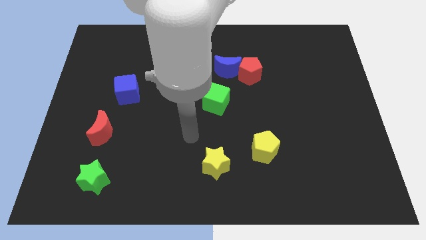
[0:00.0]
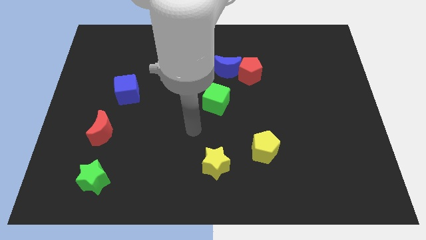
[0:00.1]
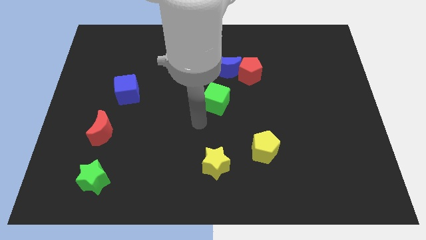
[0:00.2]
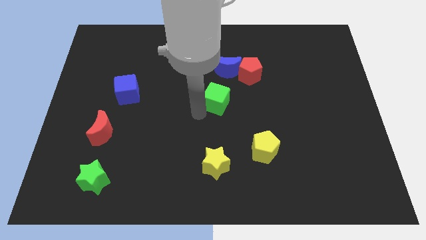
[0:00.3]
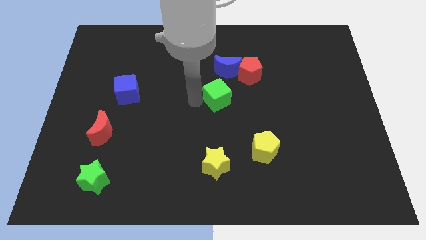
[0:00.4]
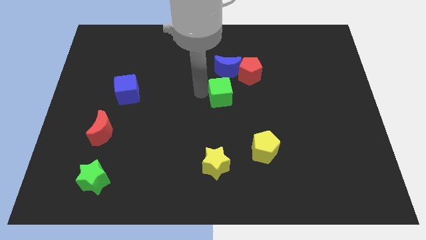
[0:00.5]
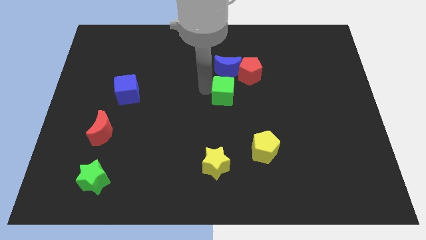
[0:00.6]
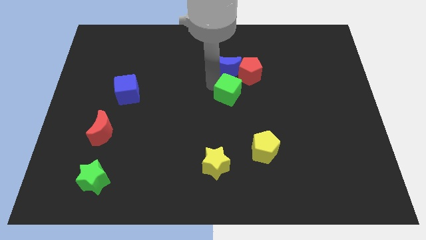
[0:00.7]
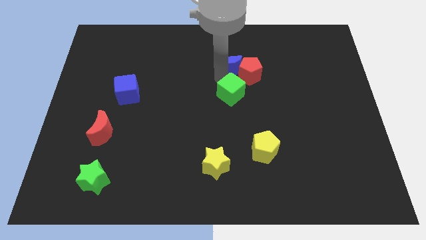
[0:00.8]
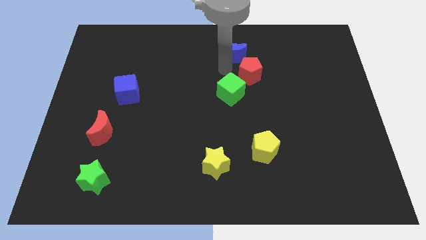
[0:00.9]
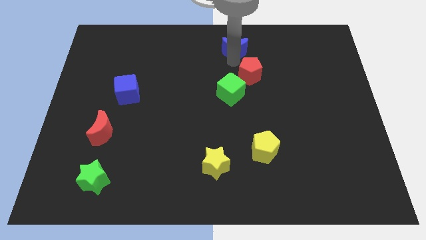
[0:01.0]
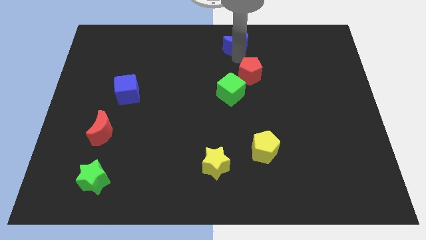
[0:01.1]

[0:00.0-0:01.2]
pull the red pentagon apart from the blue moon

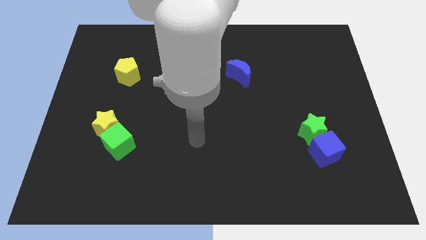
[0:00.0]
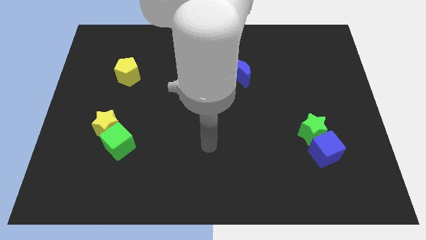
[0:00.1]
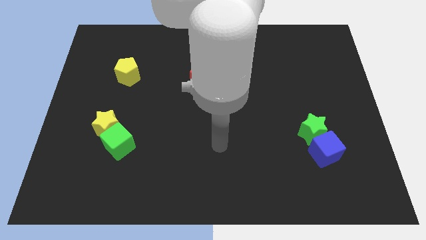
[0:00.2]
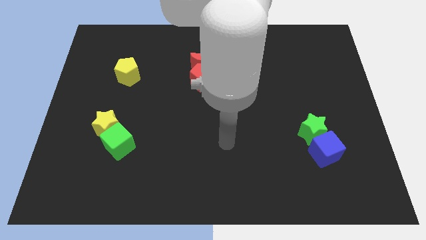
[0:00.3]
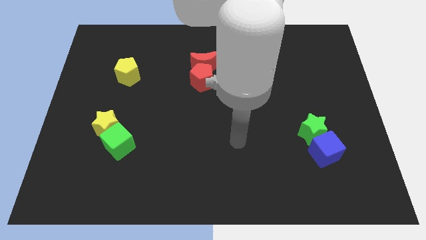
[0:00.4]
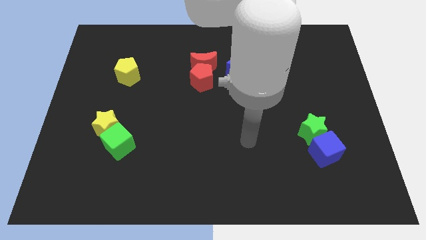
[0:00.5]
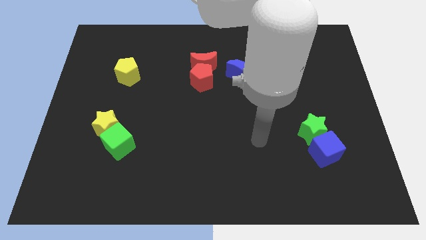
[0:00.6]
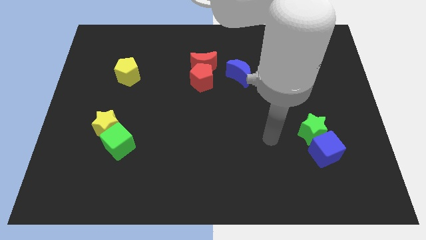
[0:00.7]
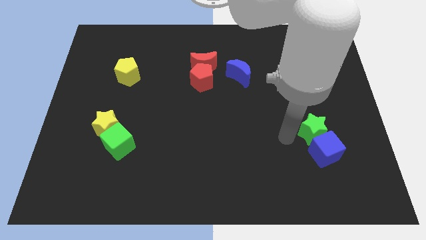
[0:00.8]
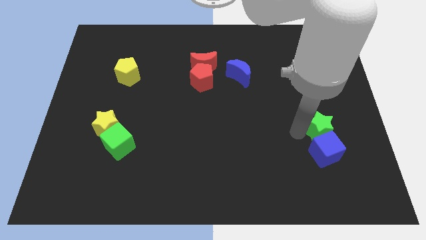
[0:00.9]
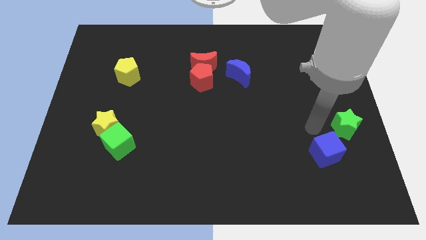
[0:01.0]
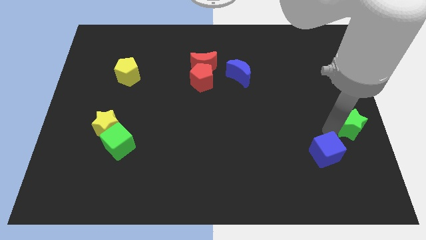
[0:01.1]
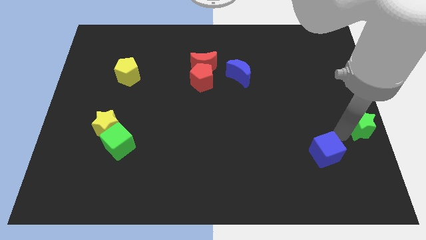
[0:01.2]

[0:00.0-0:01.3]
separate the blue cube from the green star

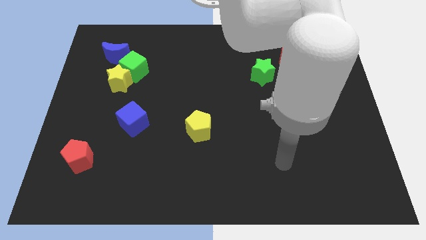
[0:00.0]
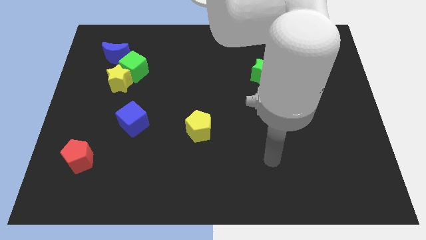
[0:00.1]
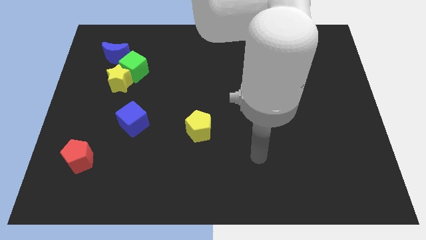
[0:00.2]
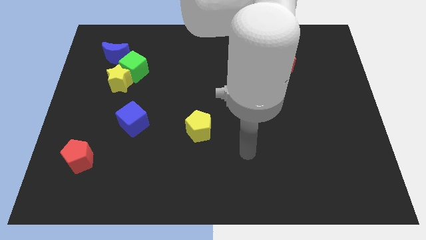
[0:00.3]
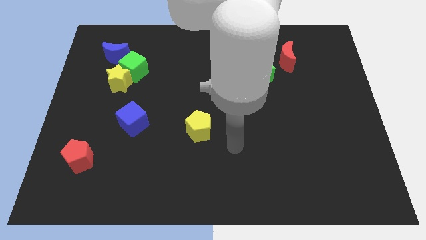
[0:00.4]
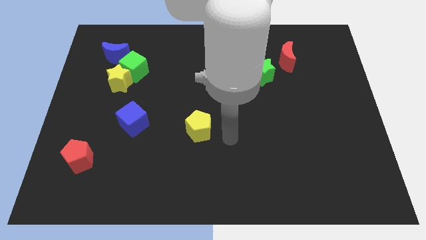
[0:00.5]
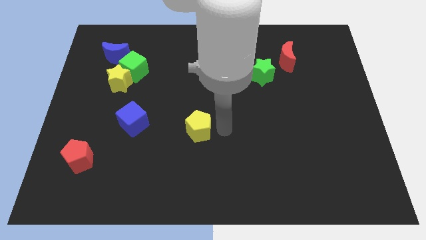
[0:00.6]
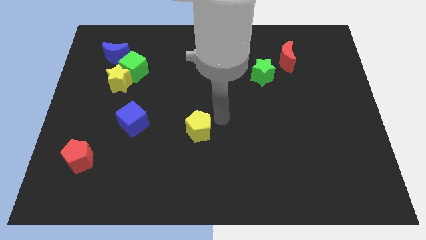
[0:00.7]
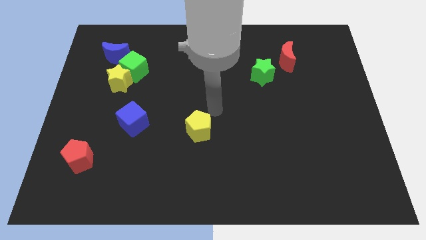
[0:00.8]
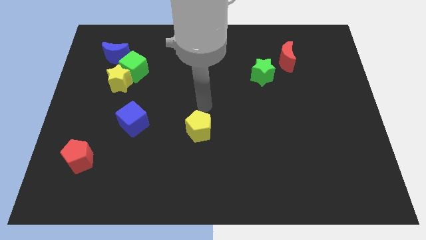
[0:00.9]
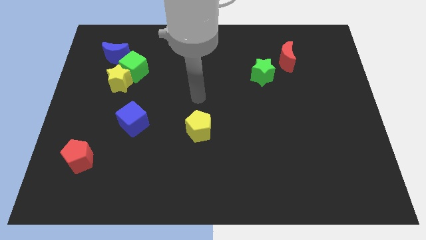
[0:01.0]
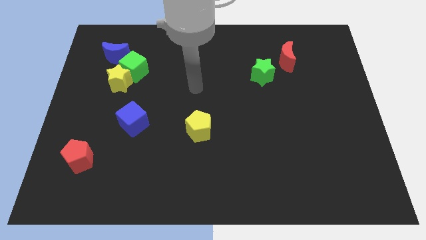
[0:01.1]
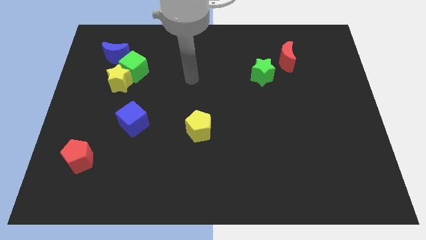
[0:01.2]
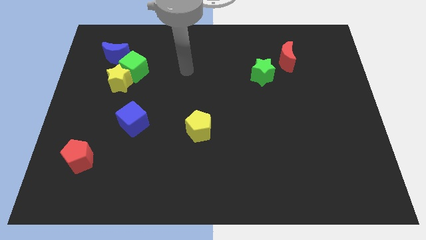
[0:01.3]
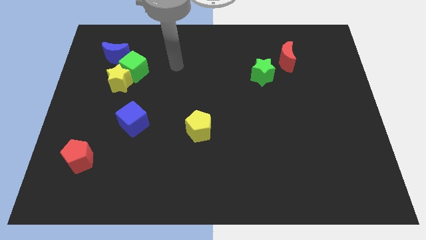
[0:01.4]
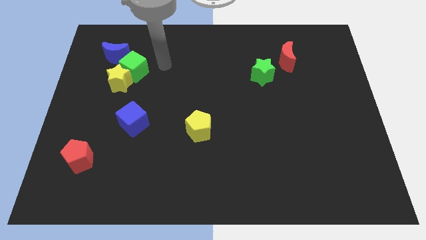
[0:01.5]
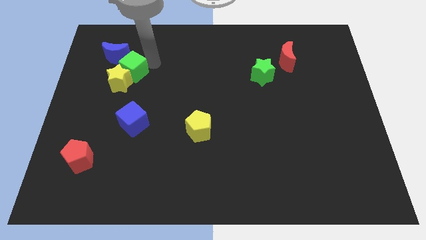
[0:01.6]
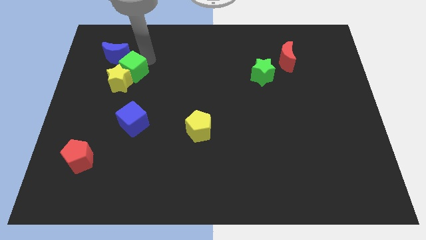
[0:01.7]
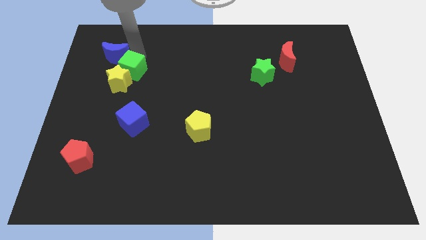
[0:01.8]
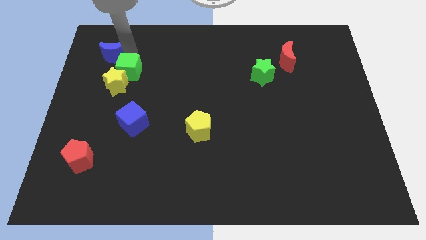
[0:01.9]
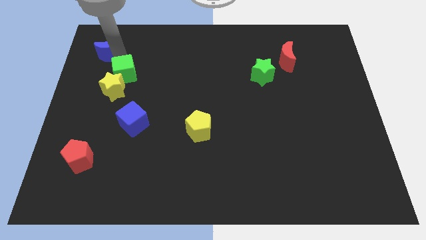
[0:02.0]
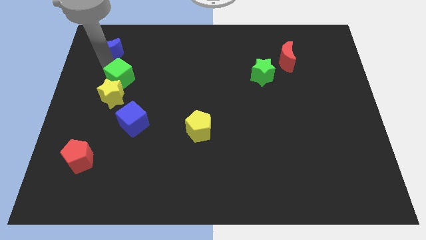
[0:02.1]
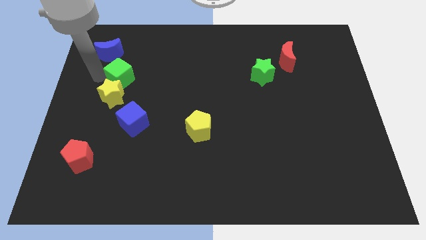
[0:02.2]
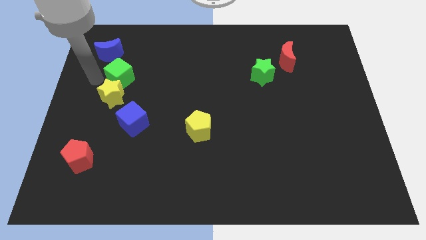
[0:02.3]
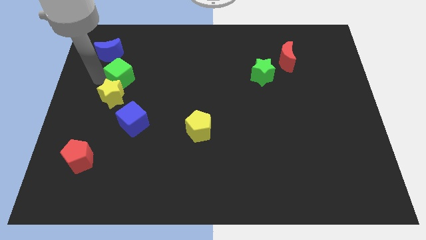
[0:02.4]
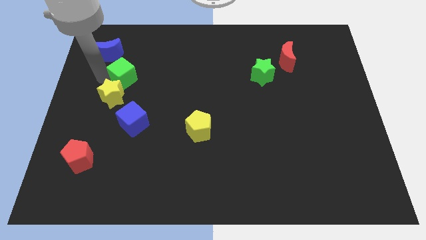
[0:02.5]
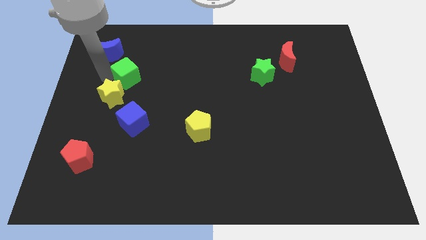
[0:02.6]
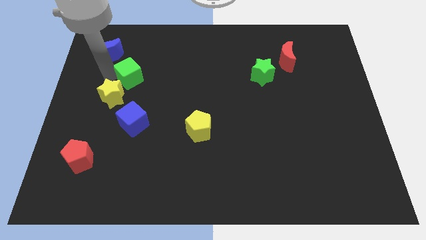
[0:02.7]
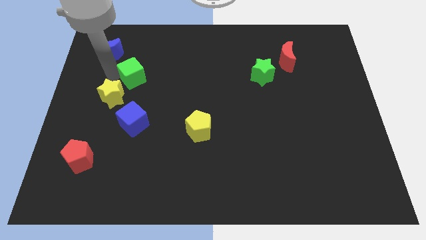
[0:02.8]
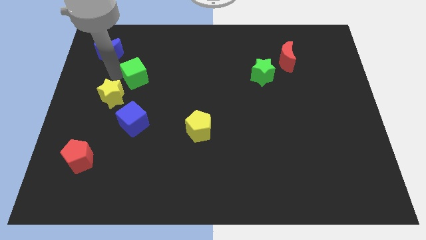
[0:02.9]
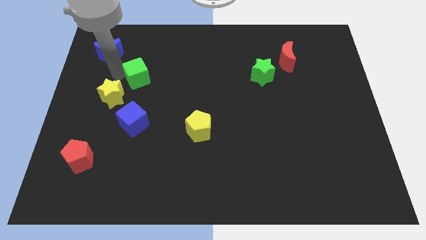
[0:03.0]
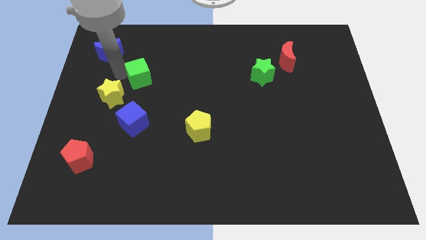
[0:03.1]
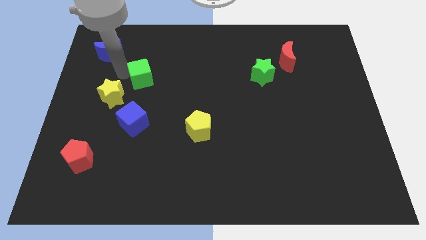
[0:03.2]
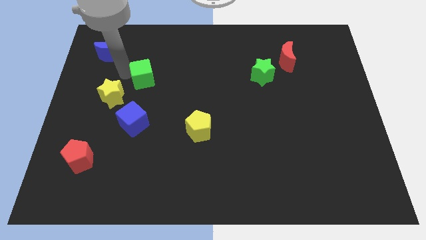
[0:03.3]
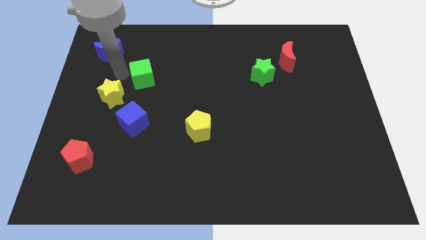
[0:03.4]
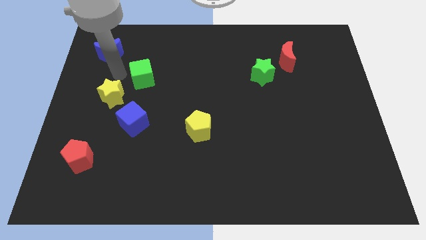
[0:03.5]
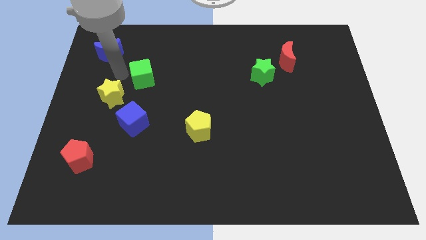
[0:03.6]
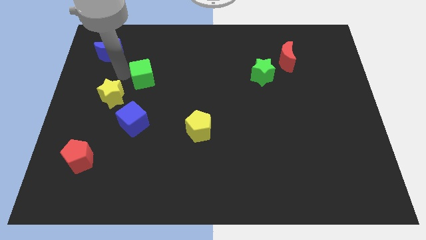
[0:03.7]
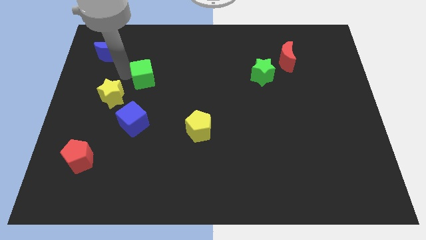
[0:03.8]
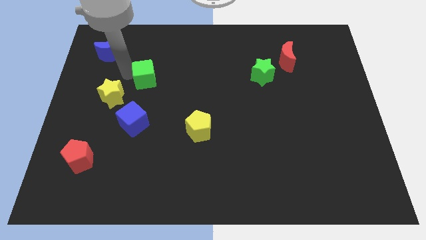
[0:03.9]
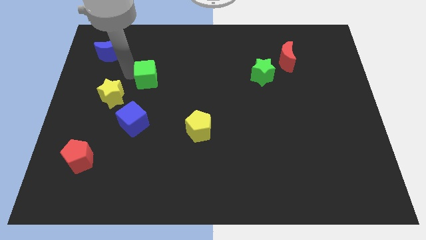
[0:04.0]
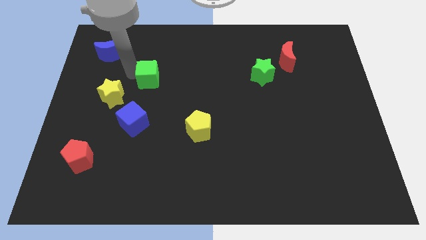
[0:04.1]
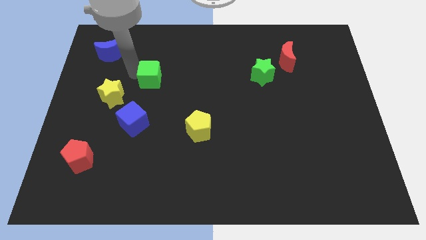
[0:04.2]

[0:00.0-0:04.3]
pull the green cube apart from the yellow star and blue moon

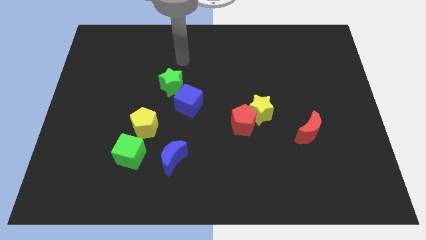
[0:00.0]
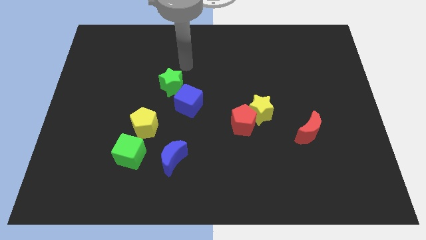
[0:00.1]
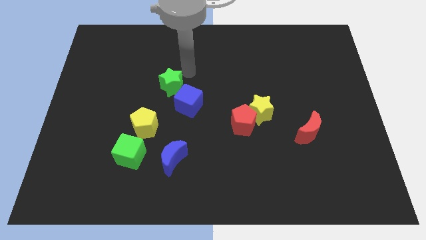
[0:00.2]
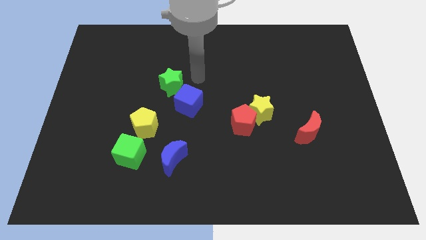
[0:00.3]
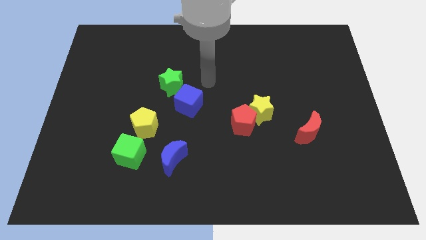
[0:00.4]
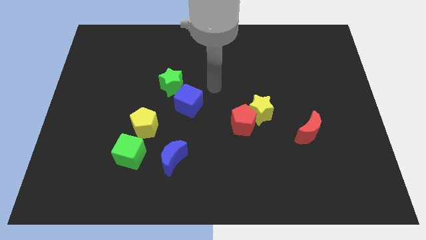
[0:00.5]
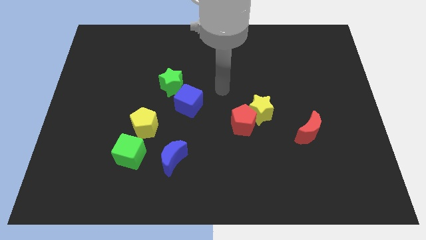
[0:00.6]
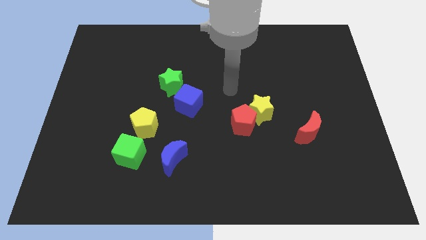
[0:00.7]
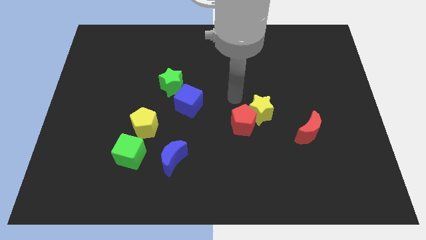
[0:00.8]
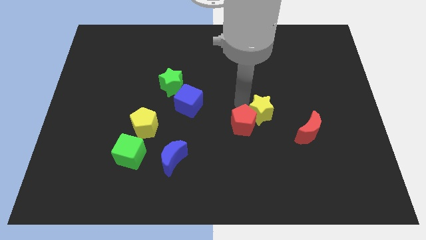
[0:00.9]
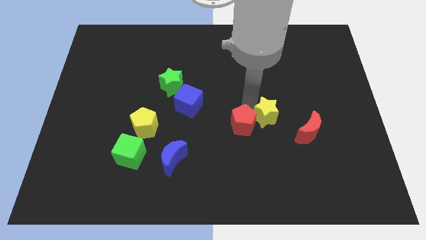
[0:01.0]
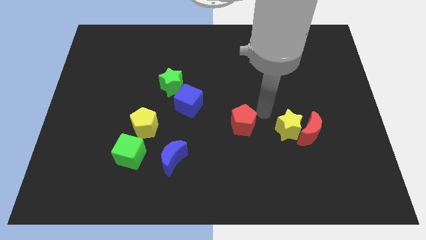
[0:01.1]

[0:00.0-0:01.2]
separate the red pentagon from the yellow star

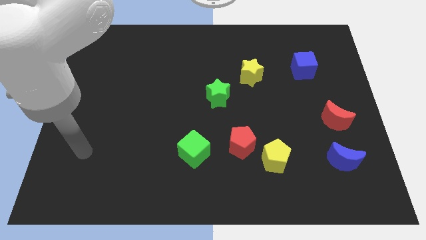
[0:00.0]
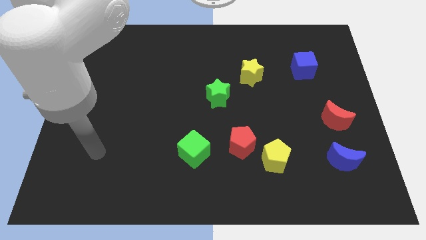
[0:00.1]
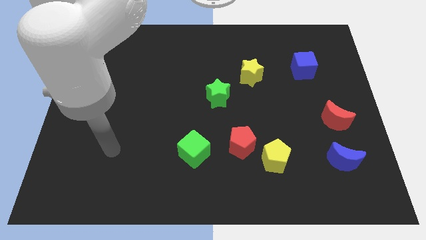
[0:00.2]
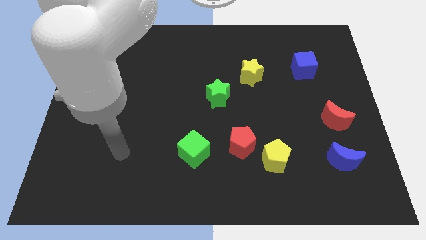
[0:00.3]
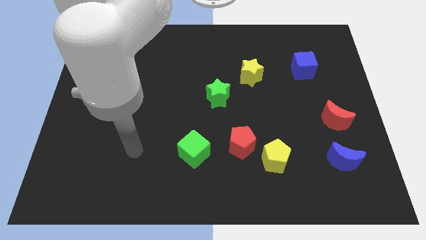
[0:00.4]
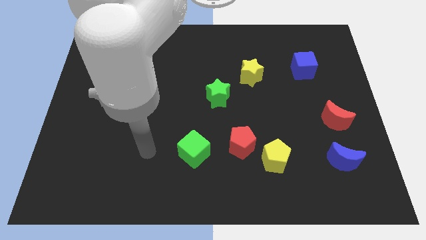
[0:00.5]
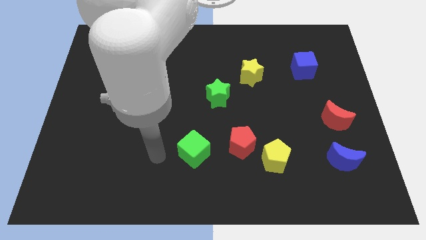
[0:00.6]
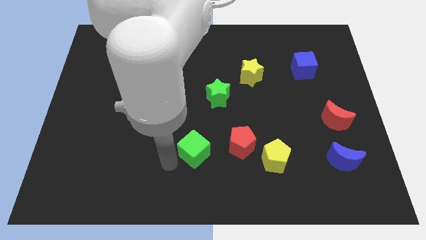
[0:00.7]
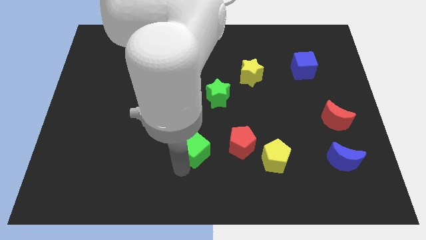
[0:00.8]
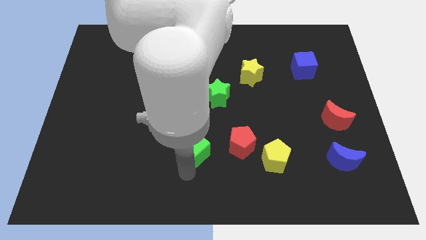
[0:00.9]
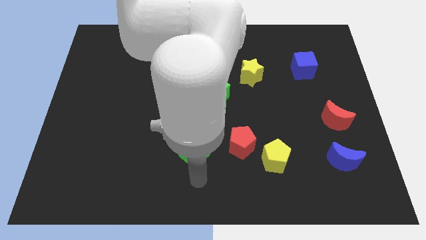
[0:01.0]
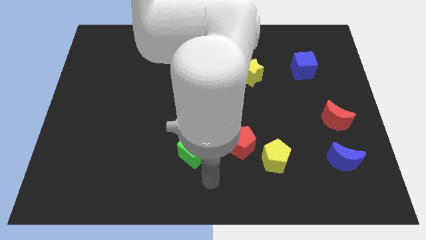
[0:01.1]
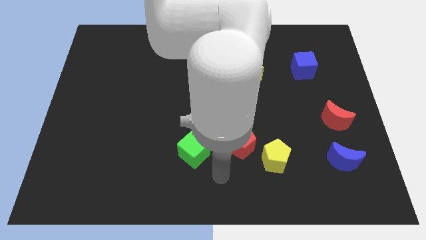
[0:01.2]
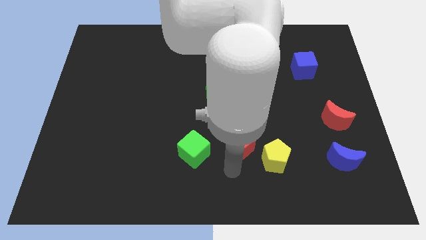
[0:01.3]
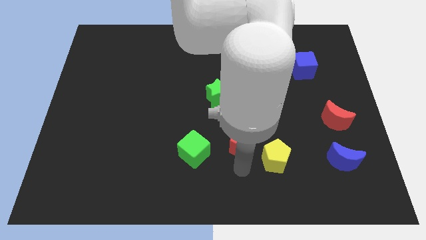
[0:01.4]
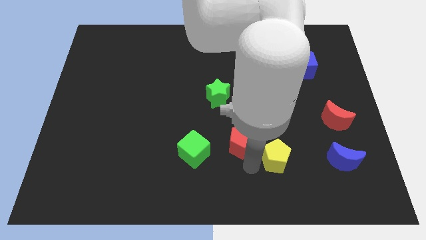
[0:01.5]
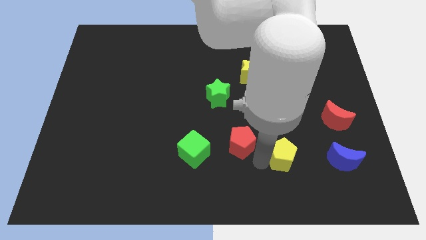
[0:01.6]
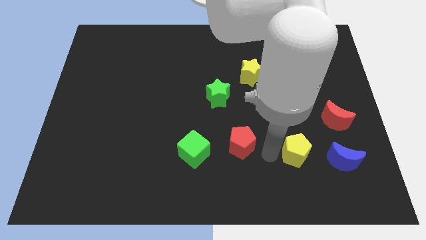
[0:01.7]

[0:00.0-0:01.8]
separate the red pentagon from the yellow pentagon
